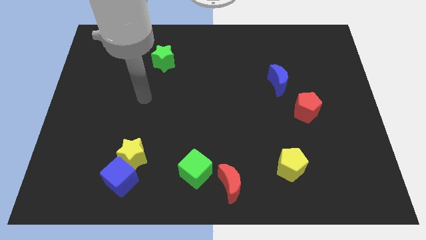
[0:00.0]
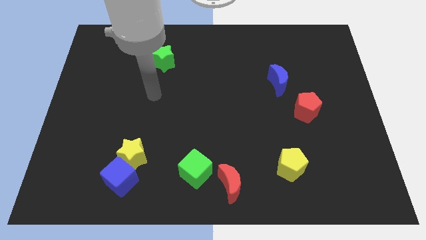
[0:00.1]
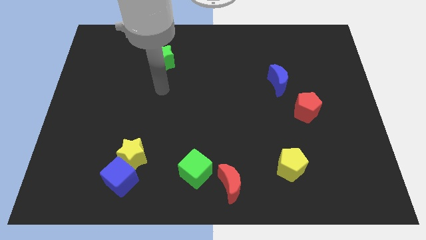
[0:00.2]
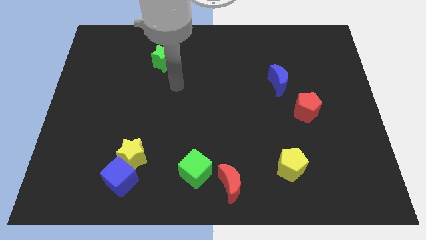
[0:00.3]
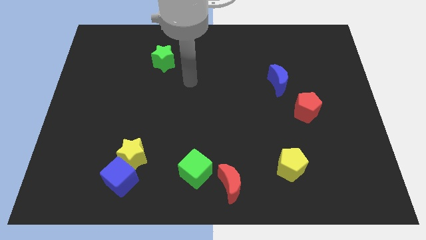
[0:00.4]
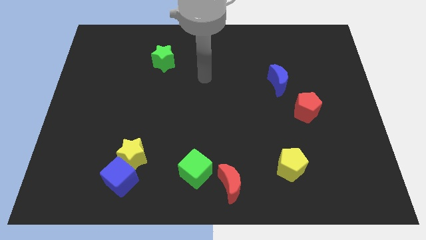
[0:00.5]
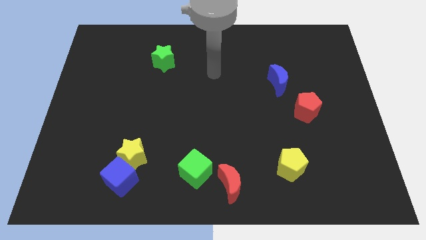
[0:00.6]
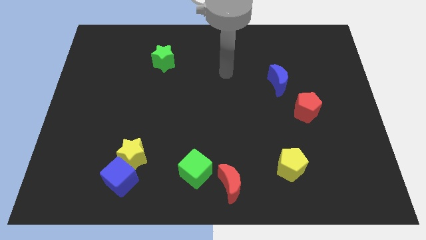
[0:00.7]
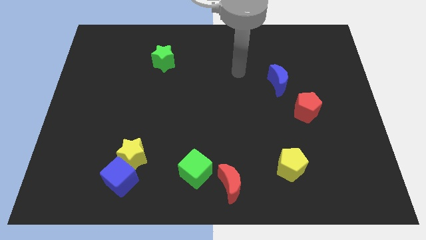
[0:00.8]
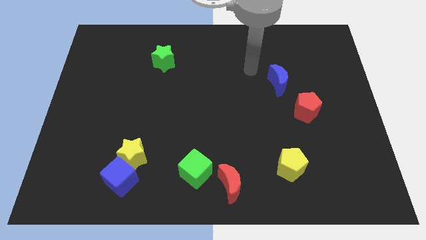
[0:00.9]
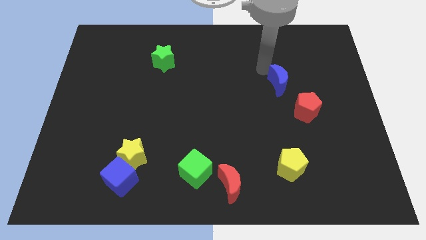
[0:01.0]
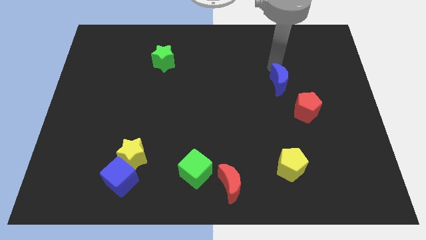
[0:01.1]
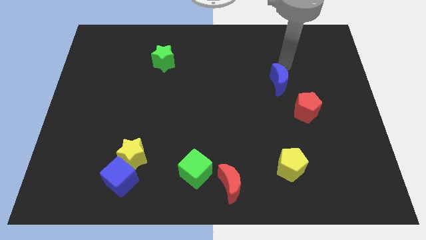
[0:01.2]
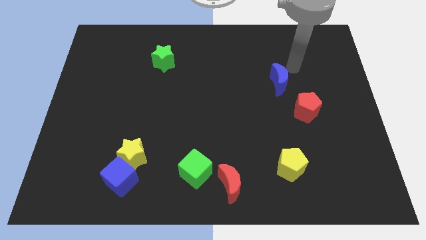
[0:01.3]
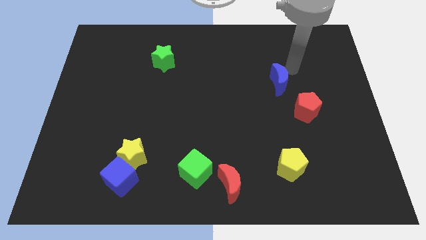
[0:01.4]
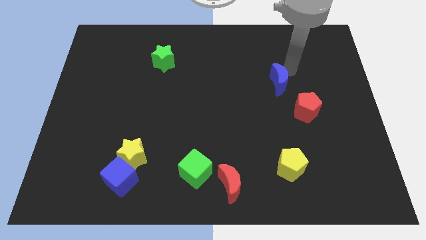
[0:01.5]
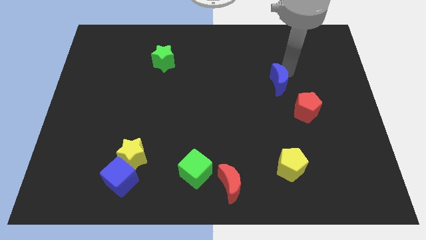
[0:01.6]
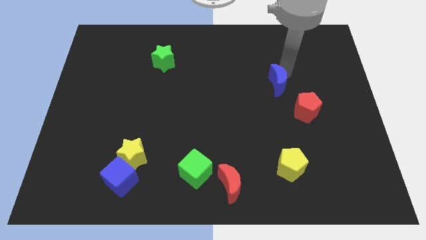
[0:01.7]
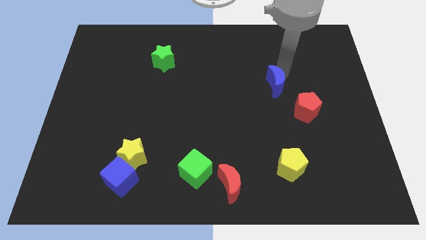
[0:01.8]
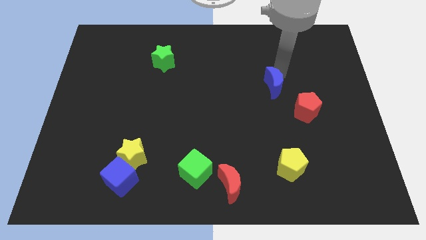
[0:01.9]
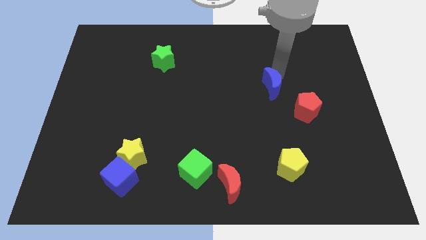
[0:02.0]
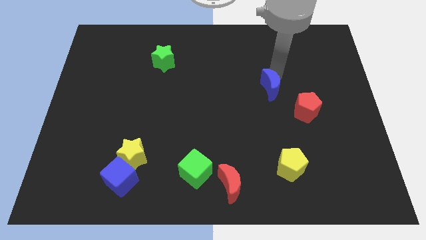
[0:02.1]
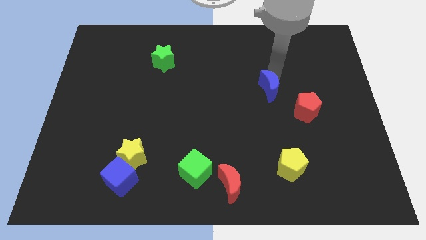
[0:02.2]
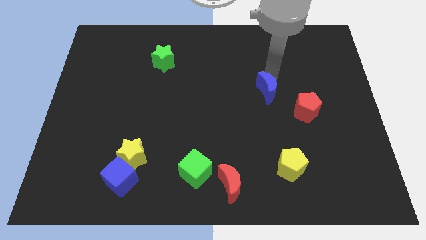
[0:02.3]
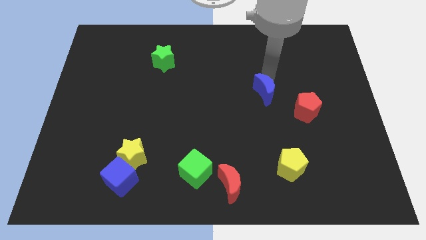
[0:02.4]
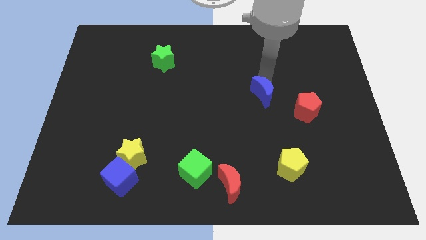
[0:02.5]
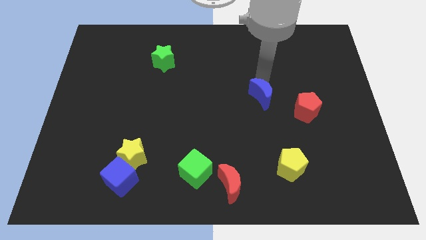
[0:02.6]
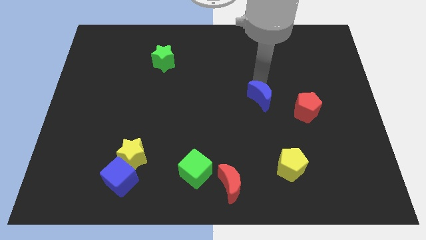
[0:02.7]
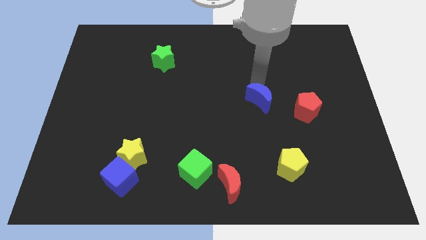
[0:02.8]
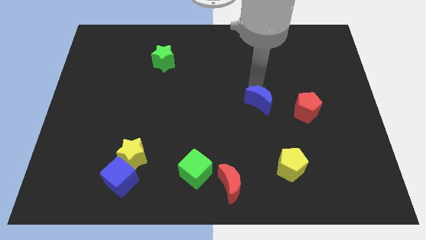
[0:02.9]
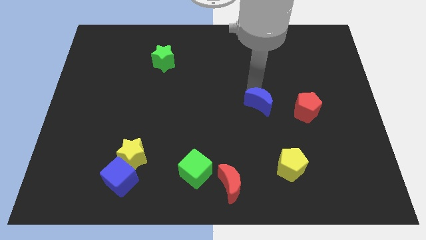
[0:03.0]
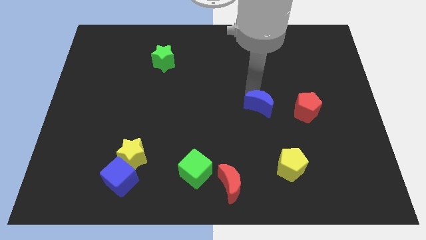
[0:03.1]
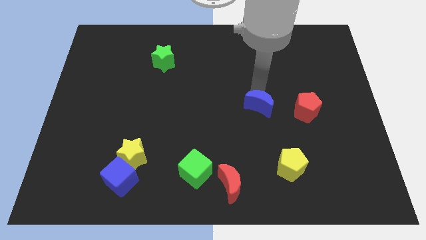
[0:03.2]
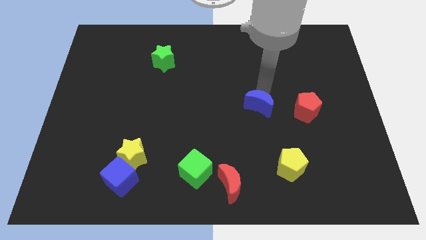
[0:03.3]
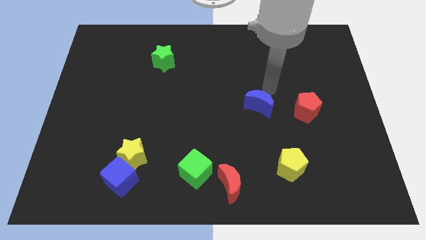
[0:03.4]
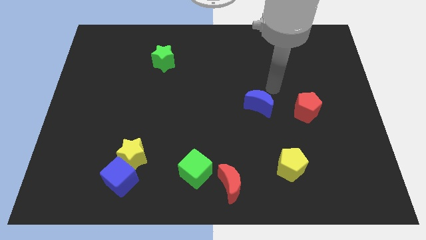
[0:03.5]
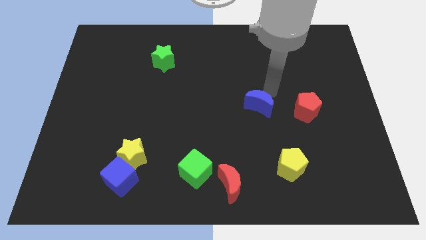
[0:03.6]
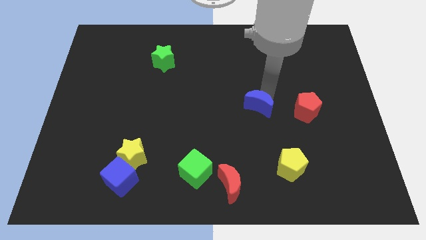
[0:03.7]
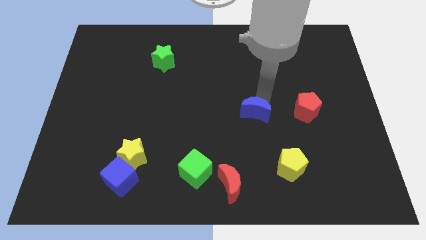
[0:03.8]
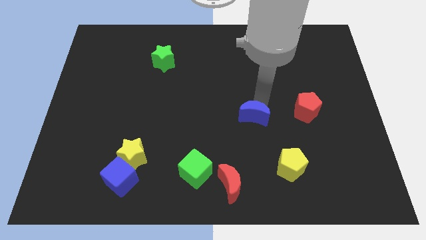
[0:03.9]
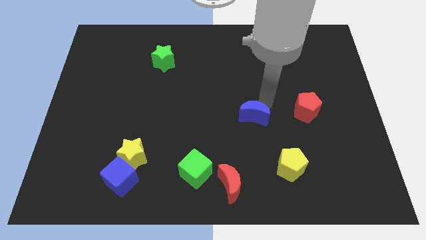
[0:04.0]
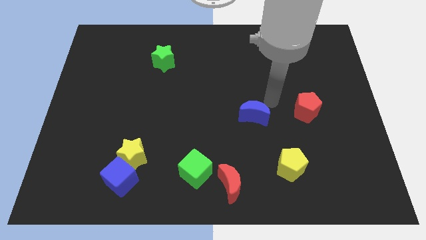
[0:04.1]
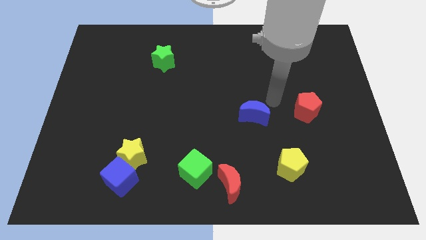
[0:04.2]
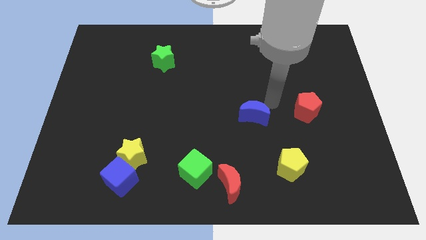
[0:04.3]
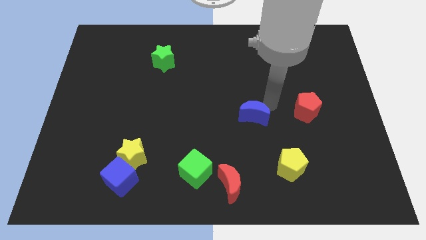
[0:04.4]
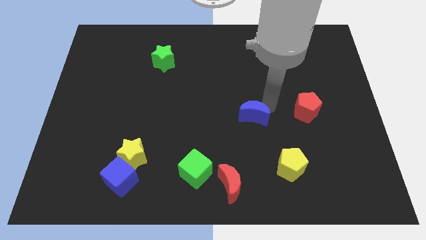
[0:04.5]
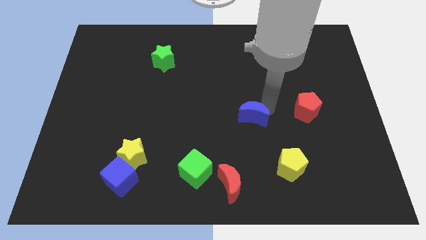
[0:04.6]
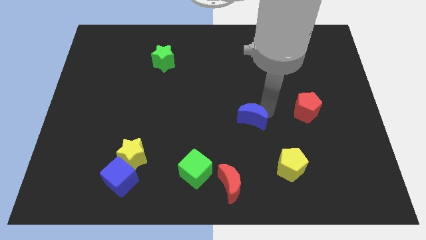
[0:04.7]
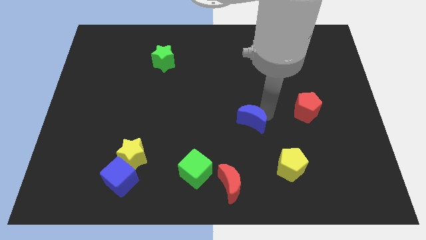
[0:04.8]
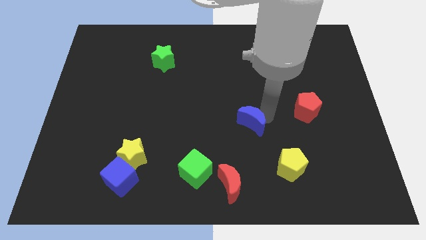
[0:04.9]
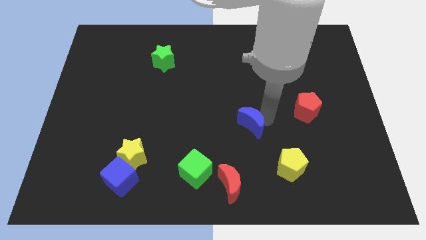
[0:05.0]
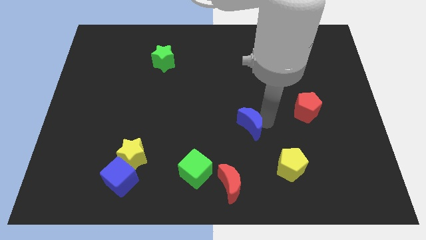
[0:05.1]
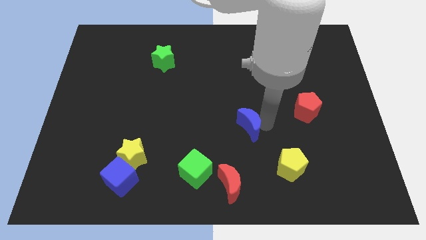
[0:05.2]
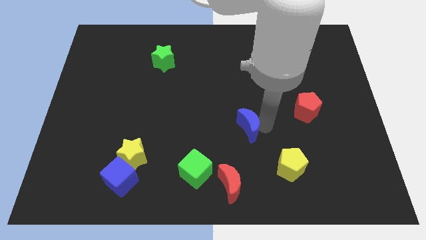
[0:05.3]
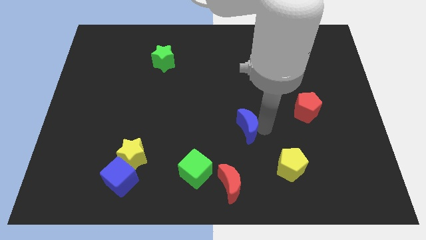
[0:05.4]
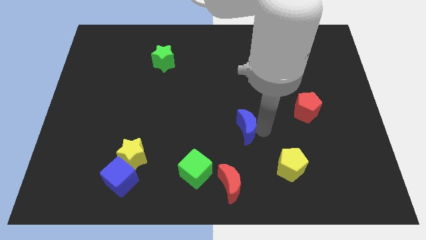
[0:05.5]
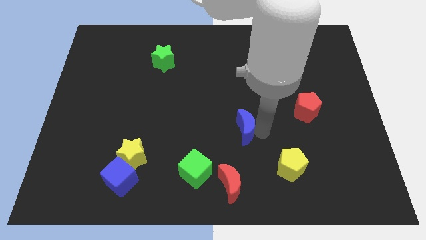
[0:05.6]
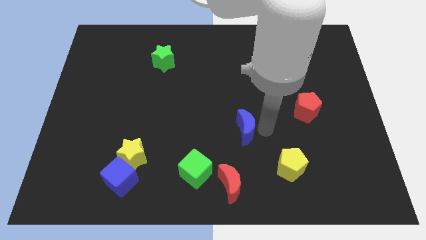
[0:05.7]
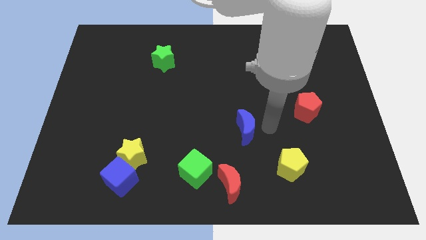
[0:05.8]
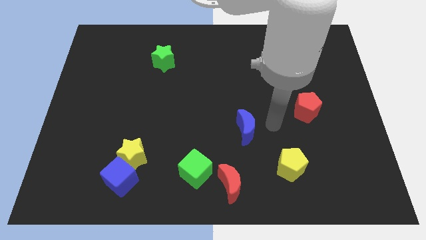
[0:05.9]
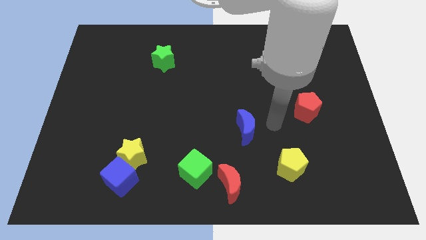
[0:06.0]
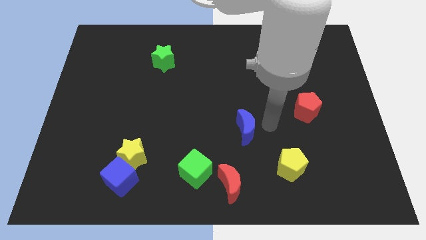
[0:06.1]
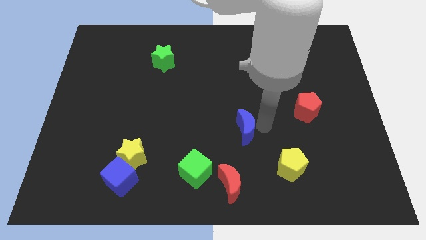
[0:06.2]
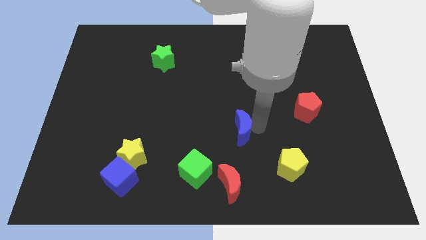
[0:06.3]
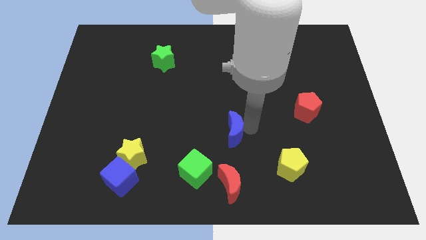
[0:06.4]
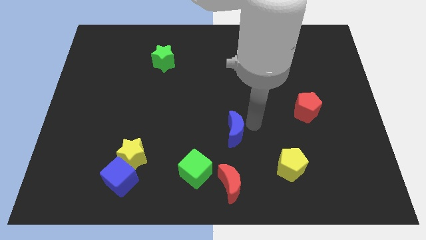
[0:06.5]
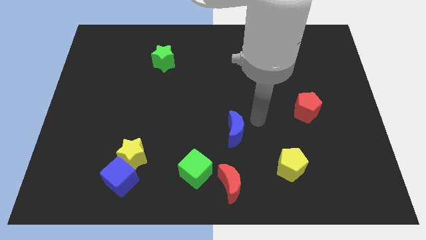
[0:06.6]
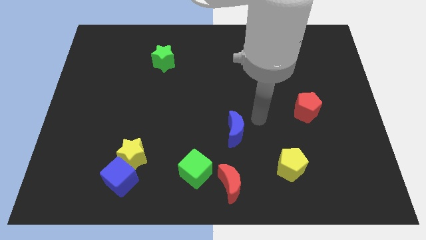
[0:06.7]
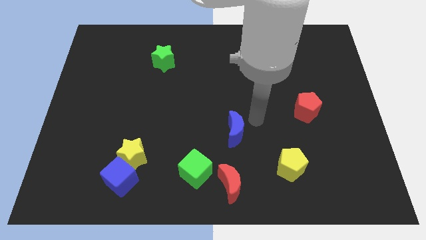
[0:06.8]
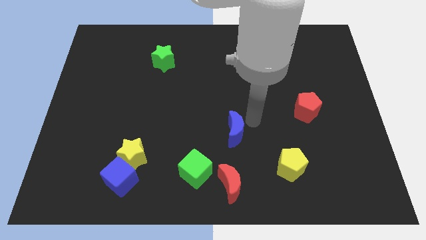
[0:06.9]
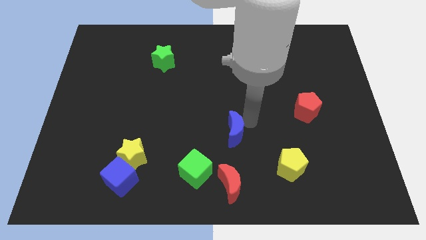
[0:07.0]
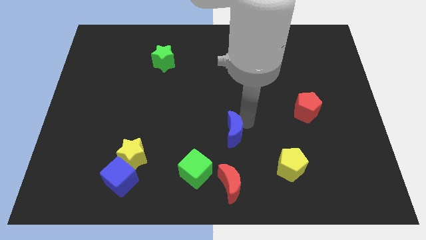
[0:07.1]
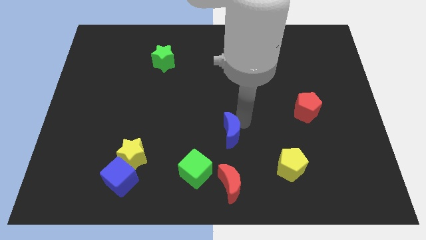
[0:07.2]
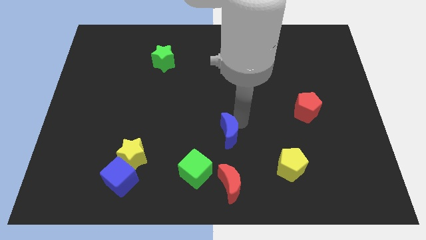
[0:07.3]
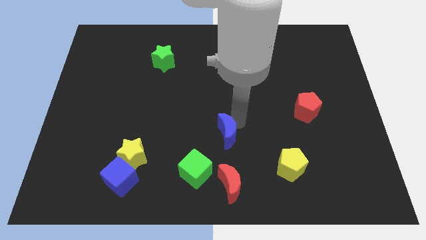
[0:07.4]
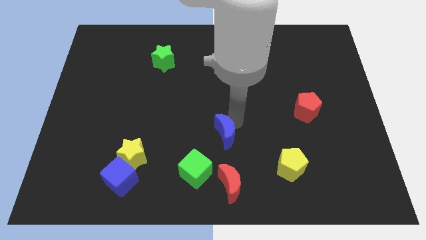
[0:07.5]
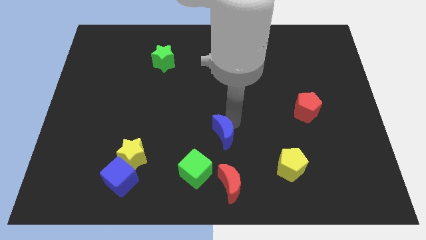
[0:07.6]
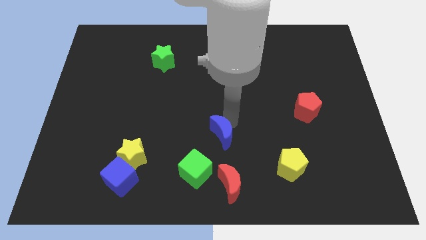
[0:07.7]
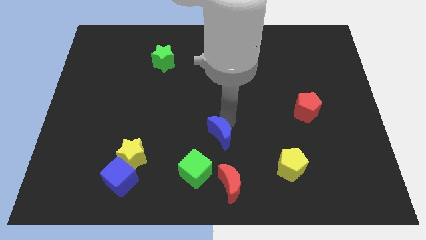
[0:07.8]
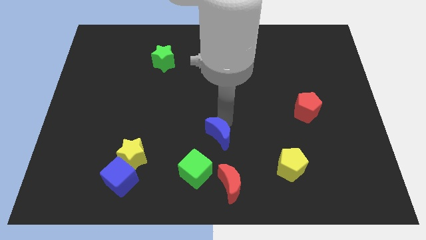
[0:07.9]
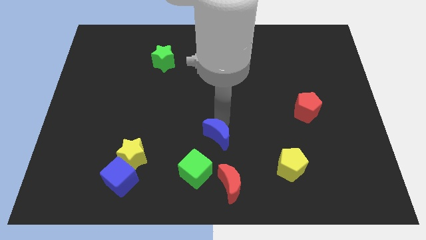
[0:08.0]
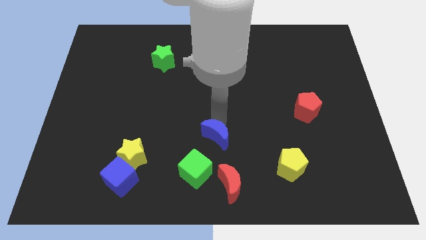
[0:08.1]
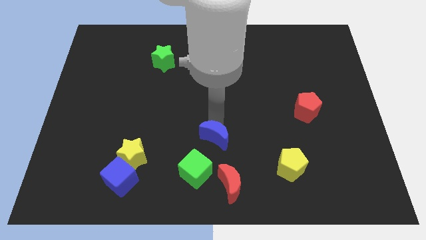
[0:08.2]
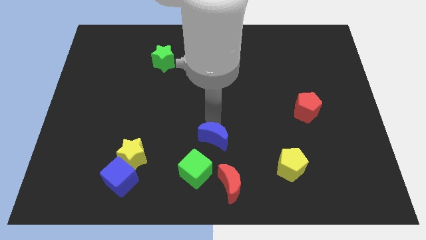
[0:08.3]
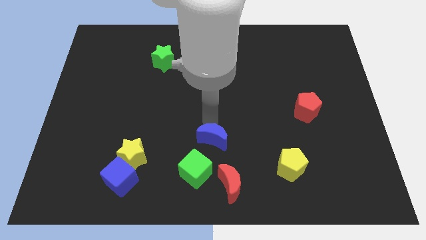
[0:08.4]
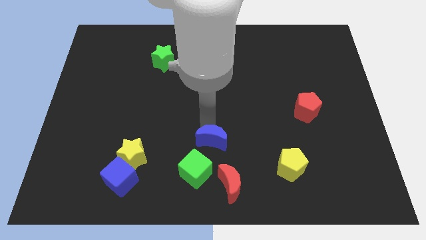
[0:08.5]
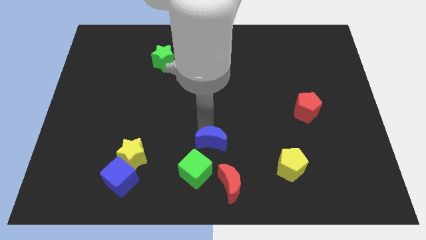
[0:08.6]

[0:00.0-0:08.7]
put the blue moon to the top left of the red moon
